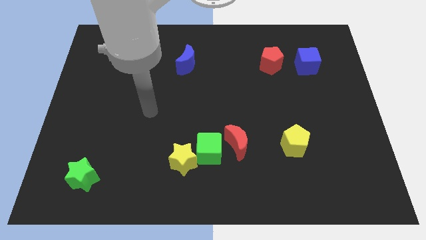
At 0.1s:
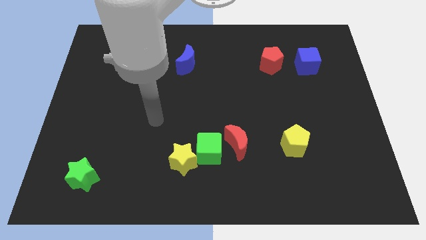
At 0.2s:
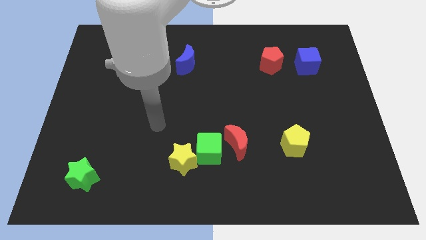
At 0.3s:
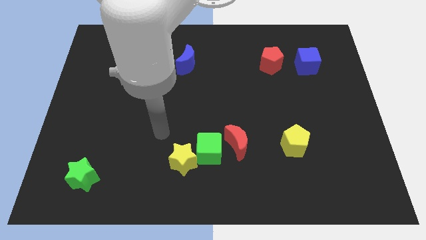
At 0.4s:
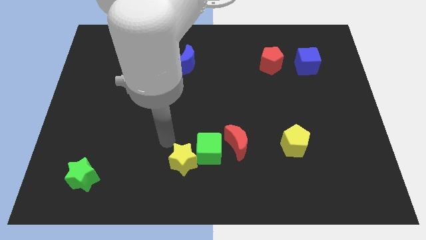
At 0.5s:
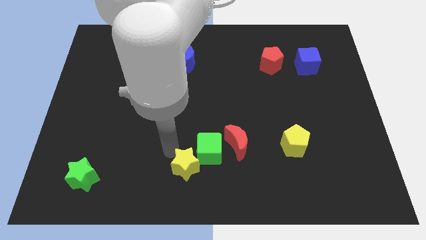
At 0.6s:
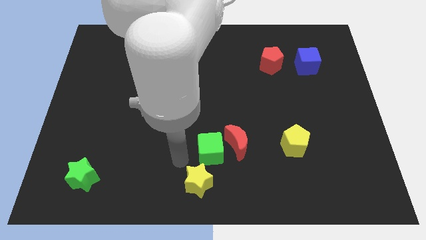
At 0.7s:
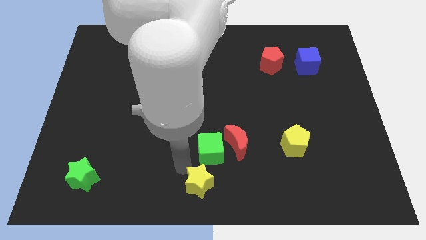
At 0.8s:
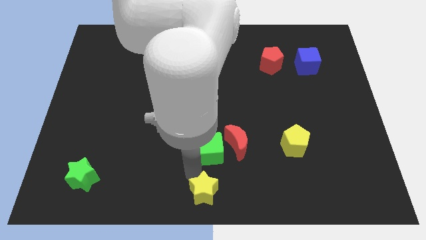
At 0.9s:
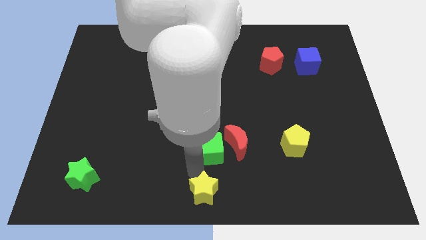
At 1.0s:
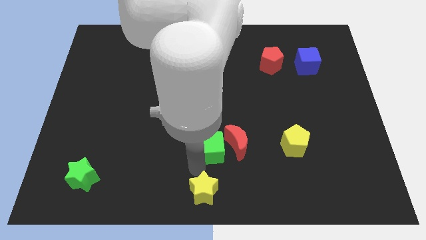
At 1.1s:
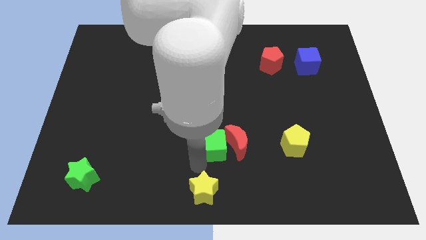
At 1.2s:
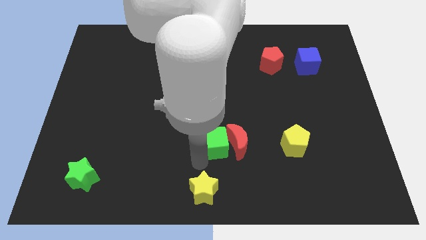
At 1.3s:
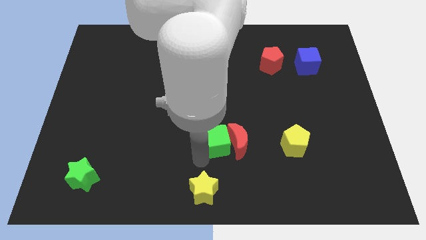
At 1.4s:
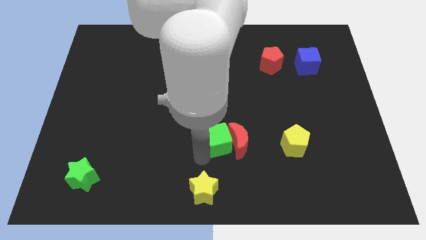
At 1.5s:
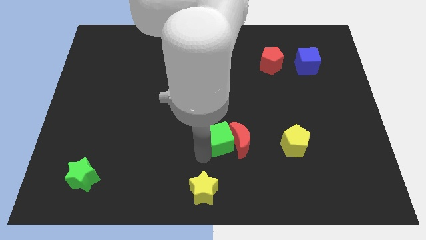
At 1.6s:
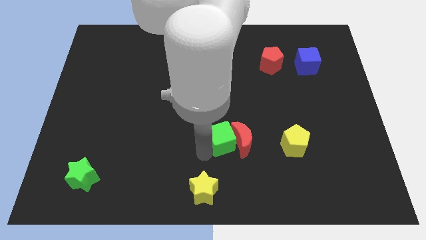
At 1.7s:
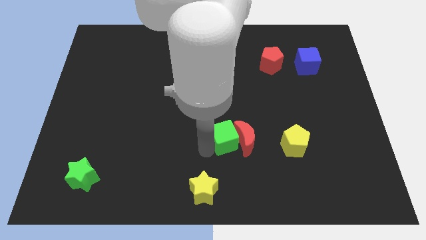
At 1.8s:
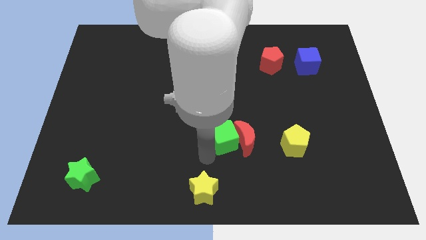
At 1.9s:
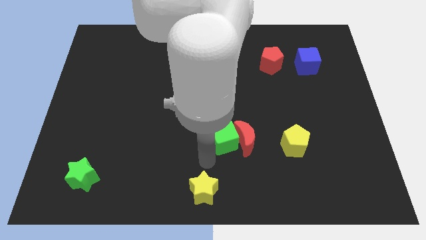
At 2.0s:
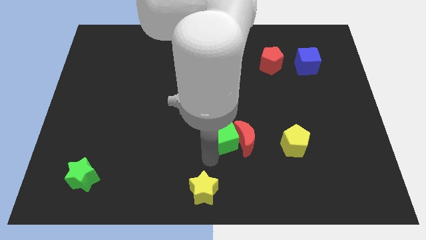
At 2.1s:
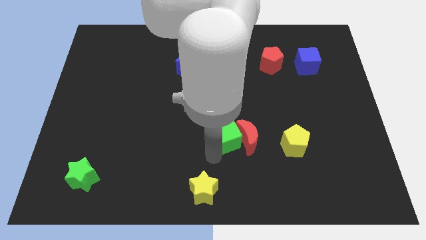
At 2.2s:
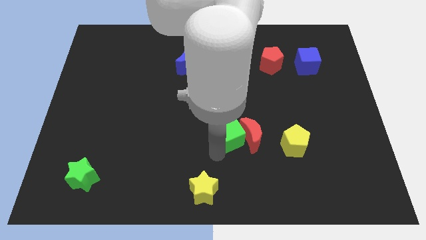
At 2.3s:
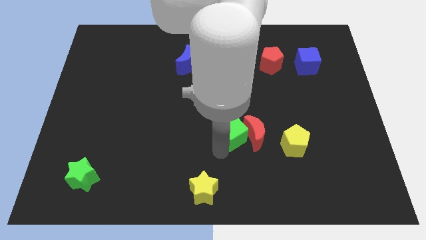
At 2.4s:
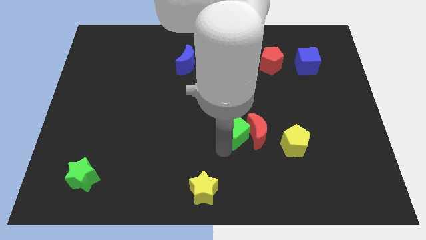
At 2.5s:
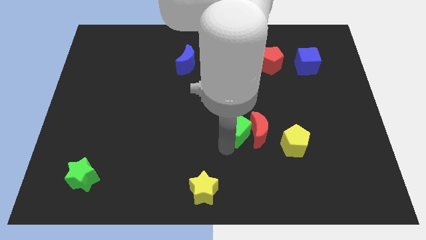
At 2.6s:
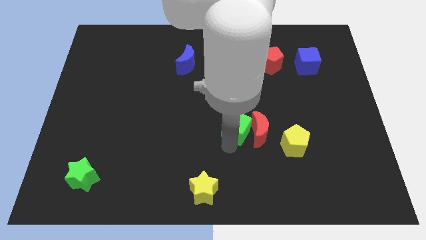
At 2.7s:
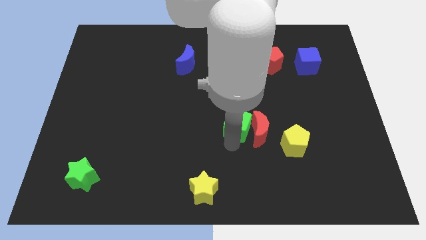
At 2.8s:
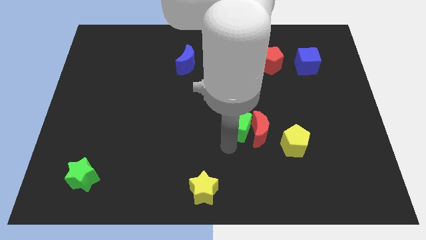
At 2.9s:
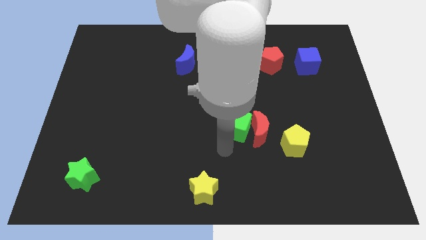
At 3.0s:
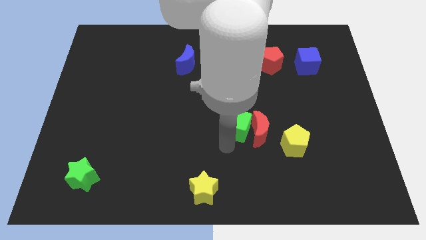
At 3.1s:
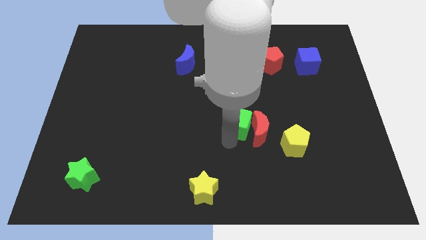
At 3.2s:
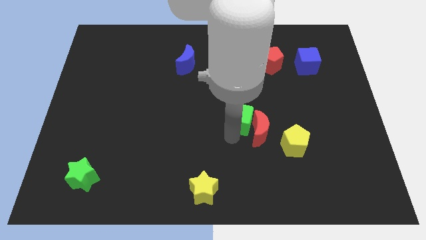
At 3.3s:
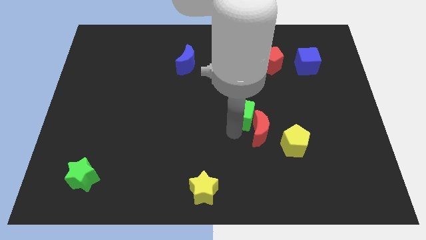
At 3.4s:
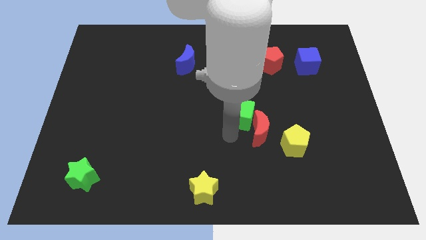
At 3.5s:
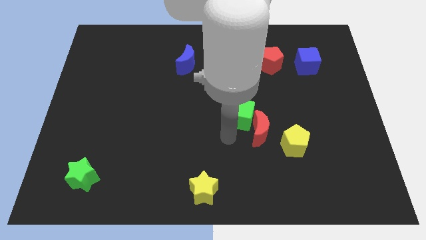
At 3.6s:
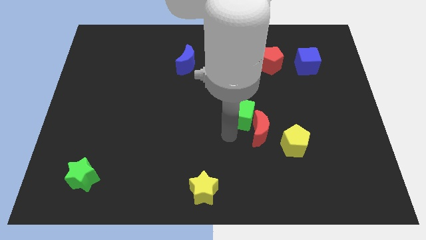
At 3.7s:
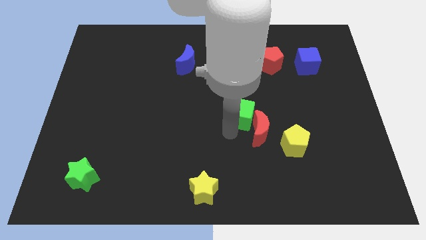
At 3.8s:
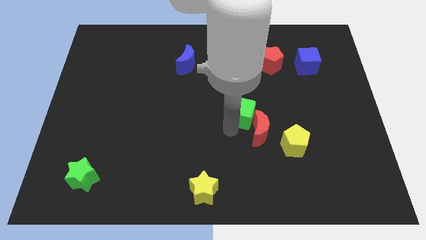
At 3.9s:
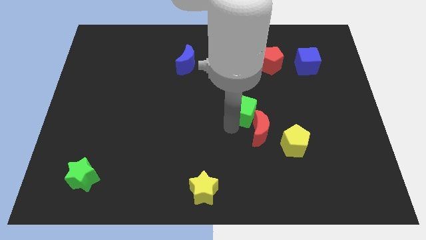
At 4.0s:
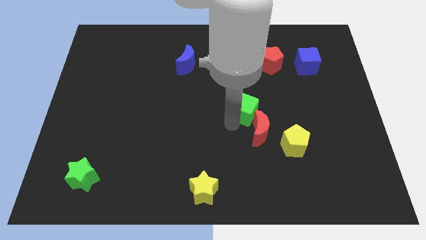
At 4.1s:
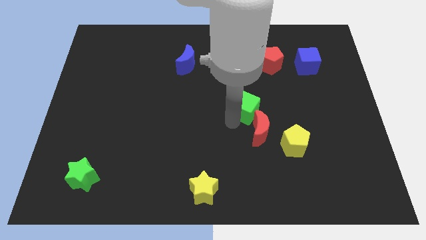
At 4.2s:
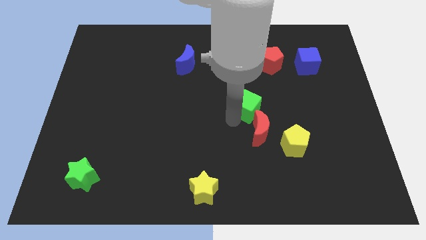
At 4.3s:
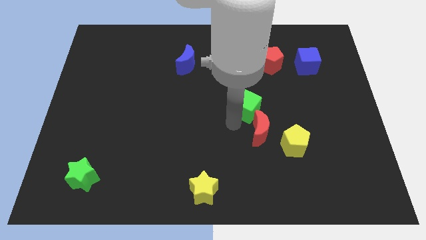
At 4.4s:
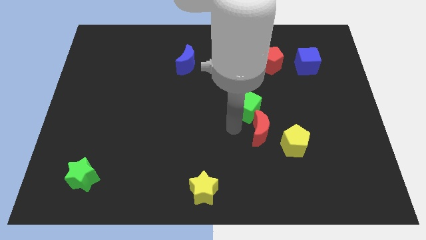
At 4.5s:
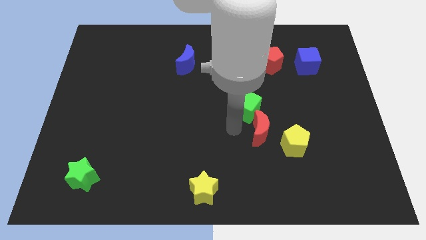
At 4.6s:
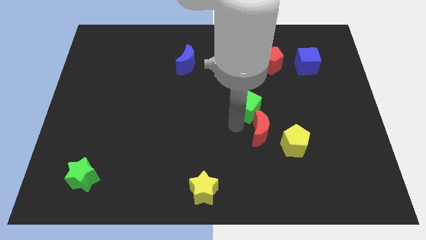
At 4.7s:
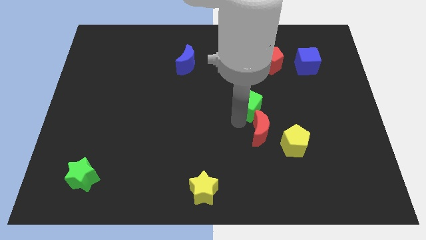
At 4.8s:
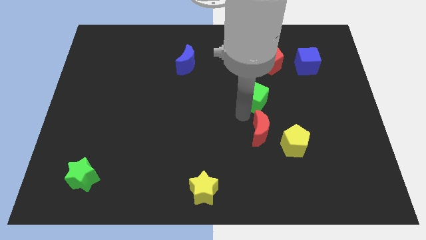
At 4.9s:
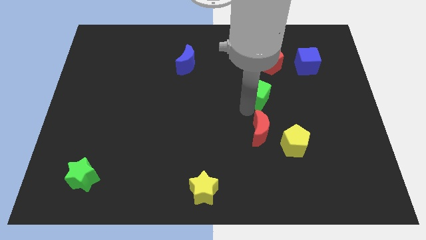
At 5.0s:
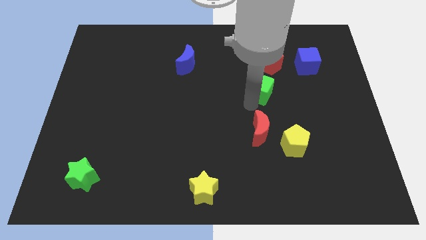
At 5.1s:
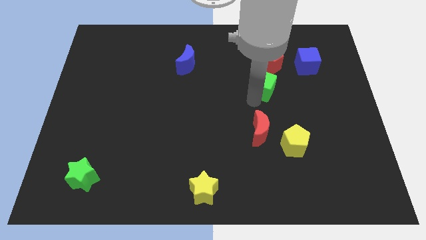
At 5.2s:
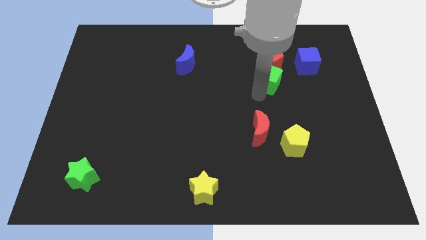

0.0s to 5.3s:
push the green cube close to the red pentagon

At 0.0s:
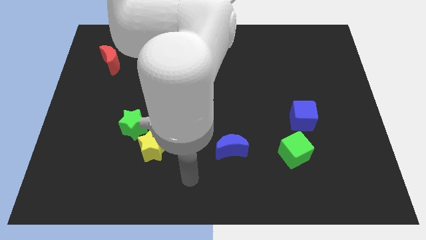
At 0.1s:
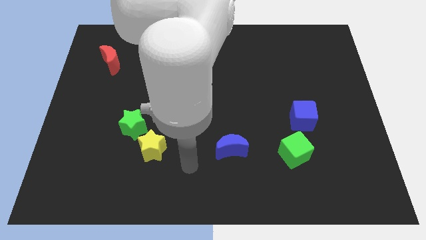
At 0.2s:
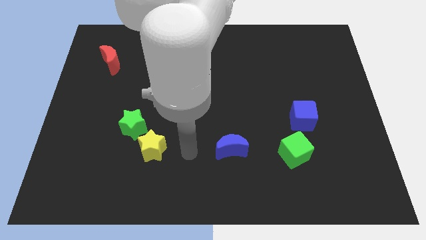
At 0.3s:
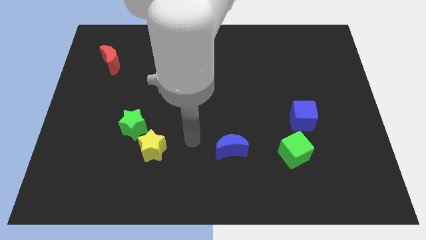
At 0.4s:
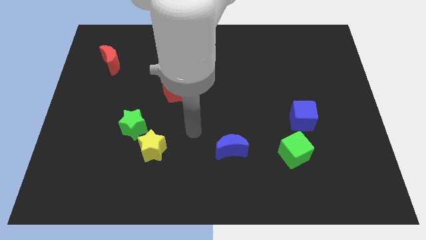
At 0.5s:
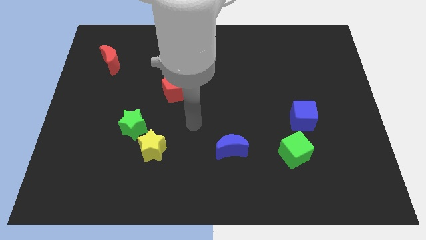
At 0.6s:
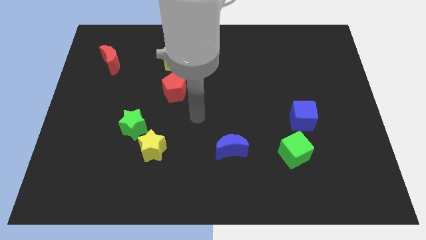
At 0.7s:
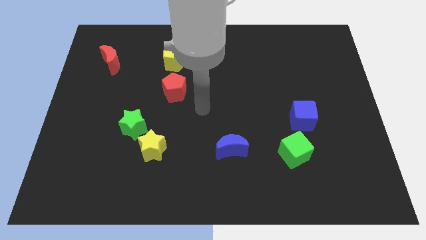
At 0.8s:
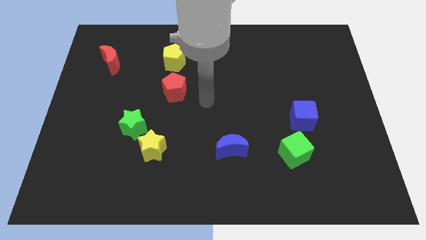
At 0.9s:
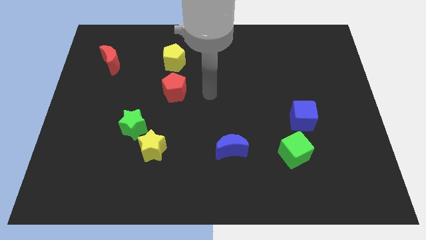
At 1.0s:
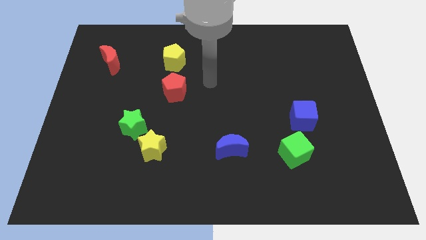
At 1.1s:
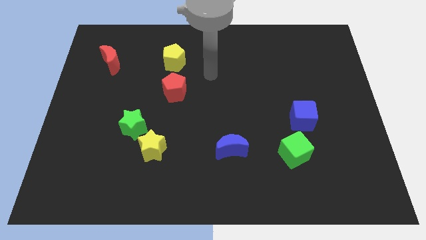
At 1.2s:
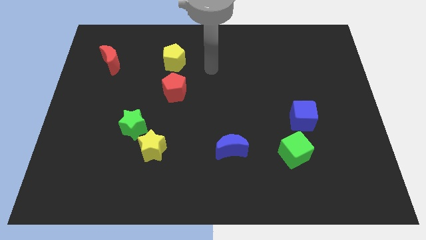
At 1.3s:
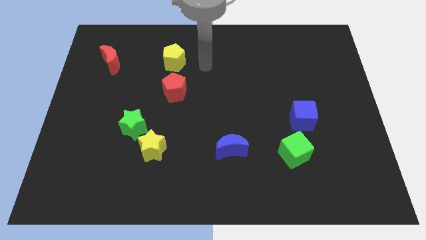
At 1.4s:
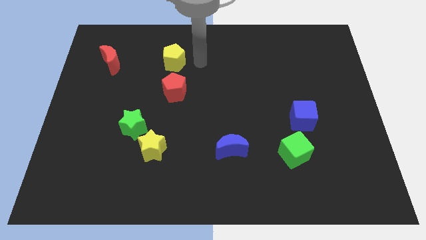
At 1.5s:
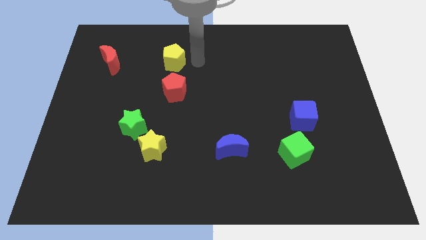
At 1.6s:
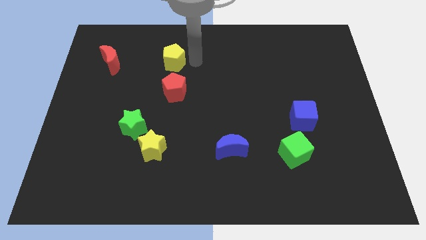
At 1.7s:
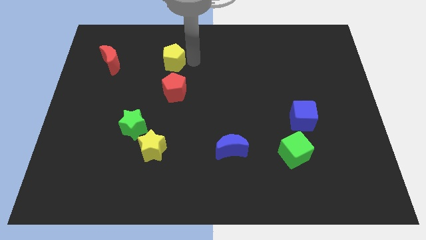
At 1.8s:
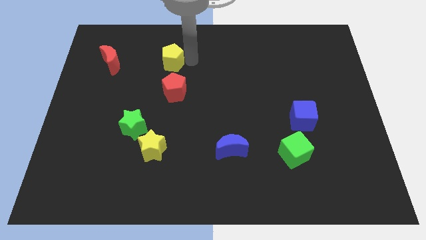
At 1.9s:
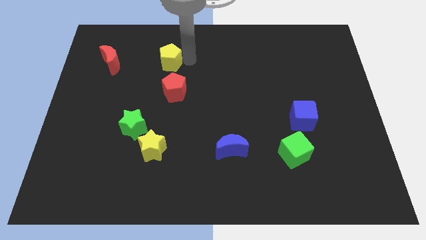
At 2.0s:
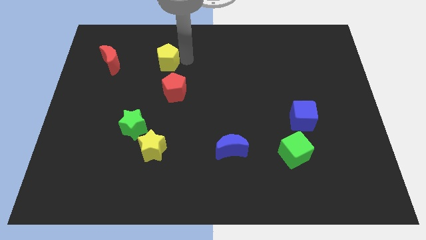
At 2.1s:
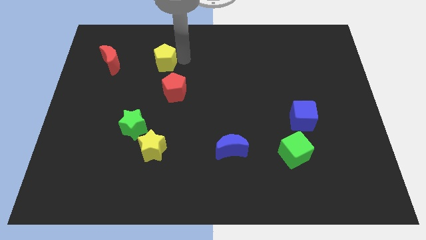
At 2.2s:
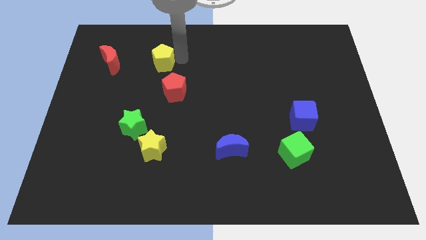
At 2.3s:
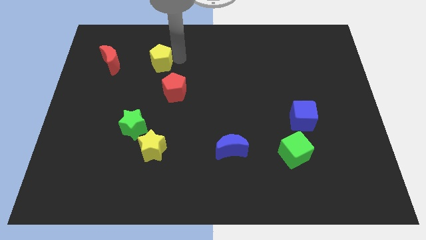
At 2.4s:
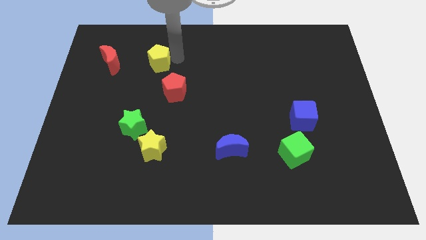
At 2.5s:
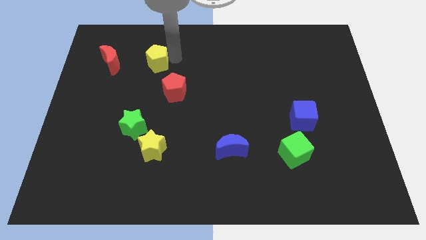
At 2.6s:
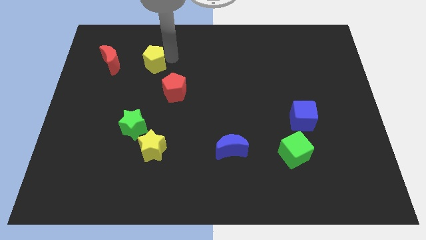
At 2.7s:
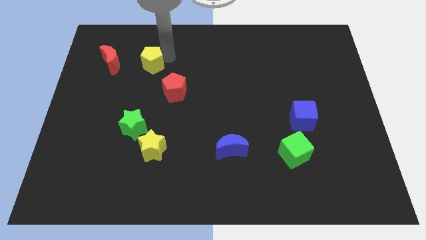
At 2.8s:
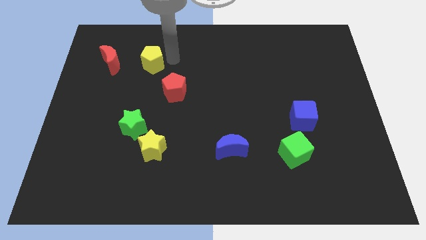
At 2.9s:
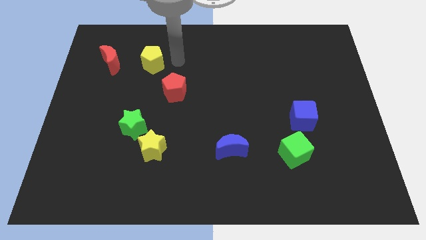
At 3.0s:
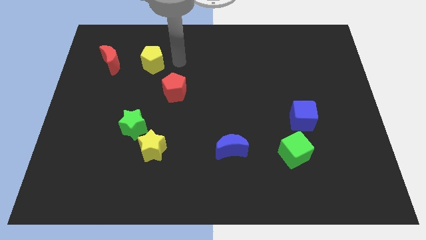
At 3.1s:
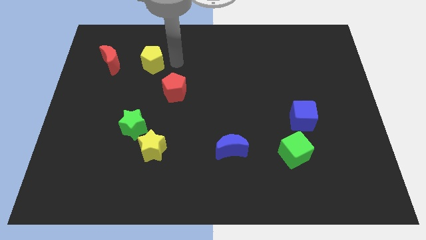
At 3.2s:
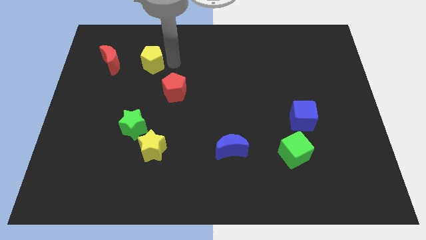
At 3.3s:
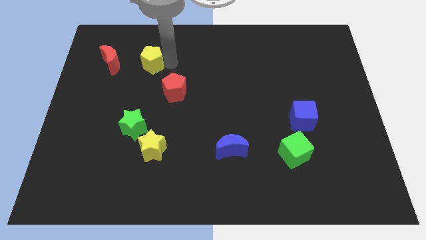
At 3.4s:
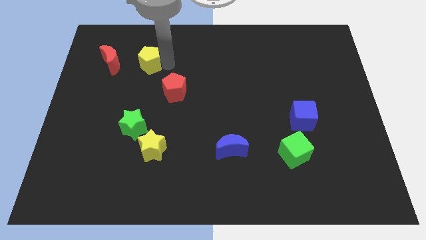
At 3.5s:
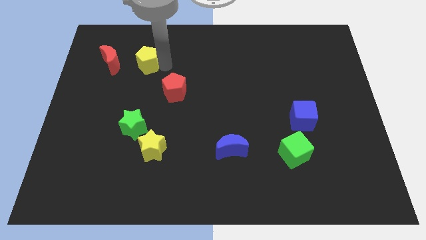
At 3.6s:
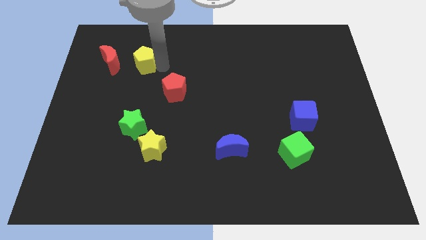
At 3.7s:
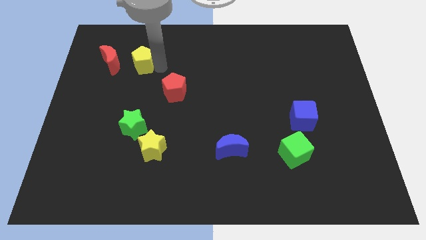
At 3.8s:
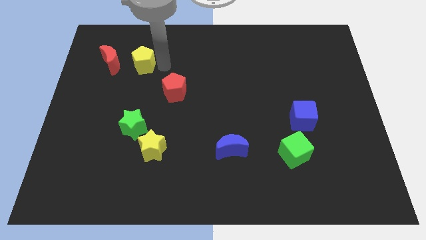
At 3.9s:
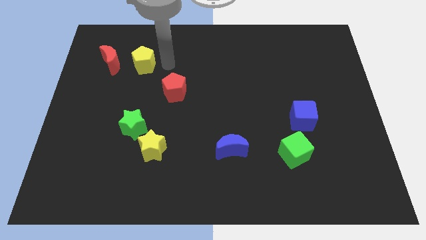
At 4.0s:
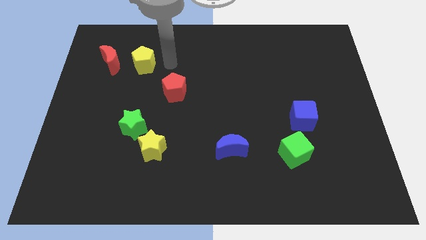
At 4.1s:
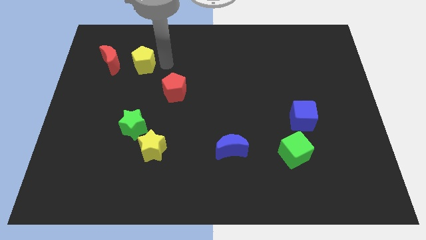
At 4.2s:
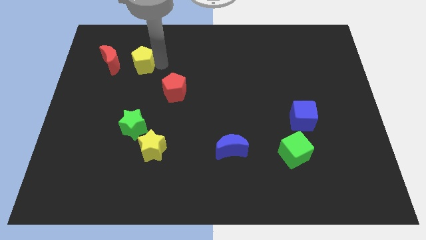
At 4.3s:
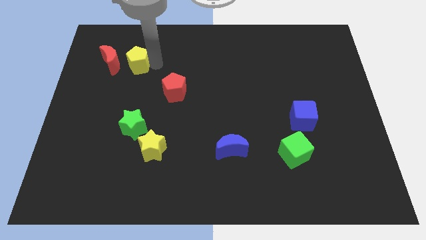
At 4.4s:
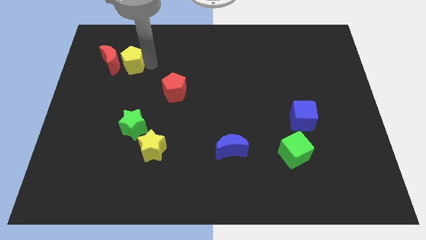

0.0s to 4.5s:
move the yellow pentagon towards the red moon
